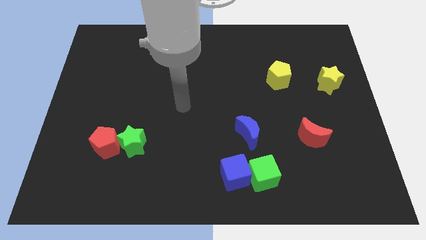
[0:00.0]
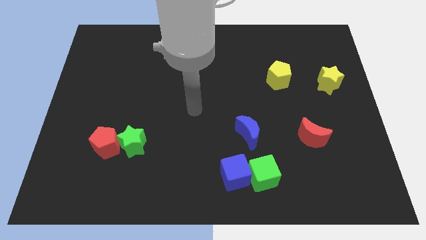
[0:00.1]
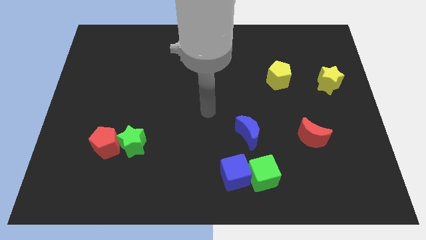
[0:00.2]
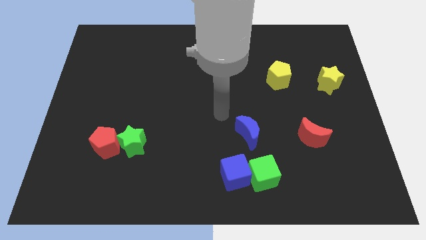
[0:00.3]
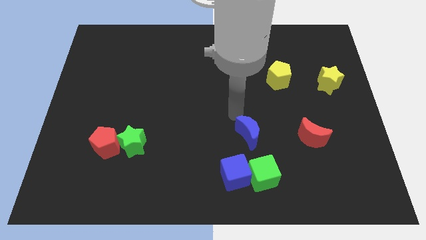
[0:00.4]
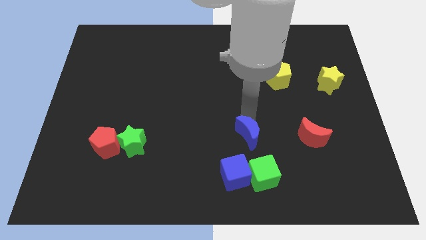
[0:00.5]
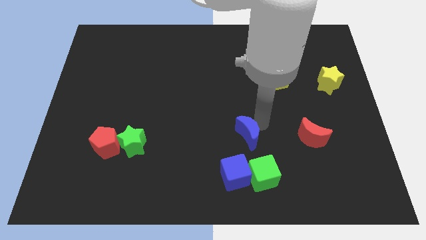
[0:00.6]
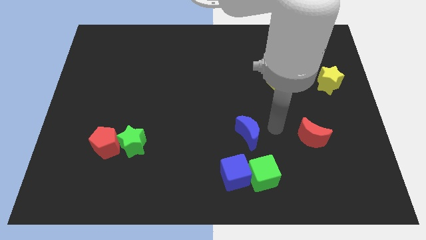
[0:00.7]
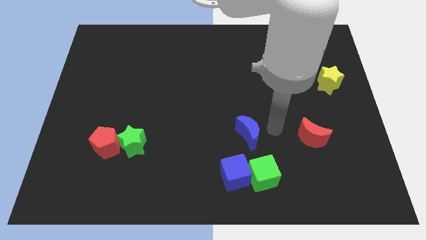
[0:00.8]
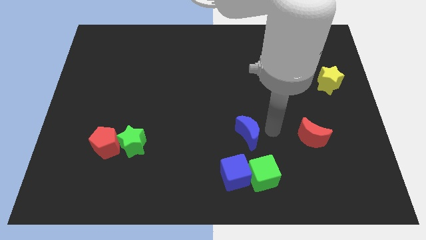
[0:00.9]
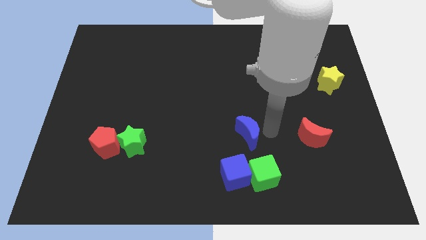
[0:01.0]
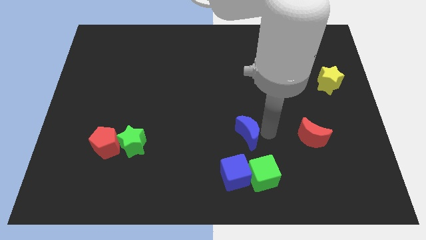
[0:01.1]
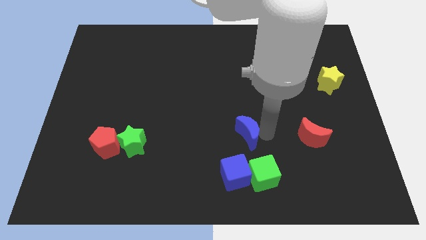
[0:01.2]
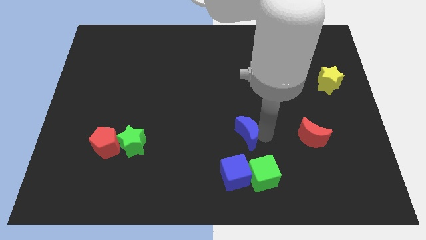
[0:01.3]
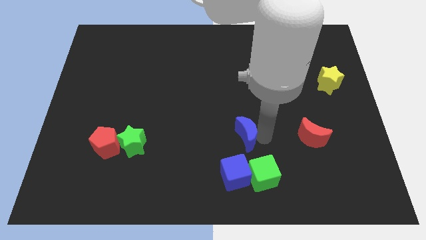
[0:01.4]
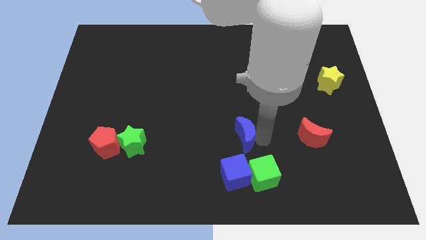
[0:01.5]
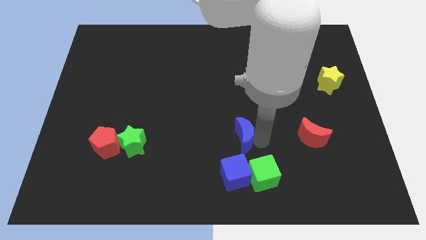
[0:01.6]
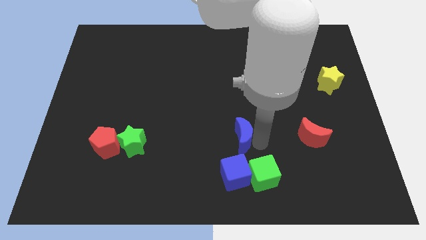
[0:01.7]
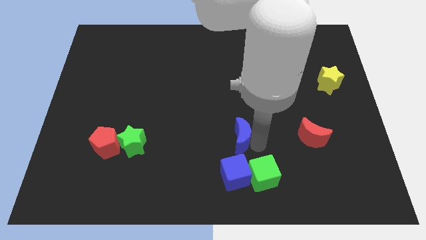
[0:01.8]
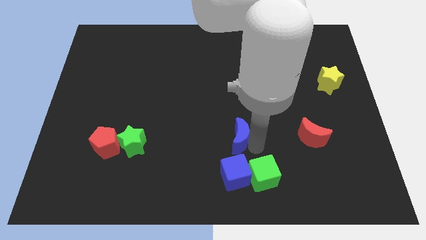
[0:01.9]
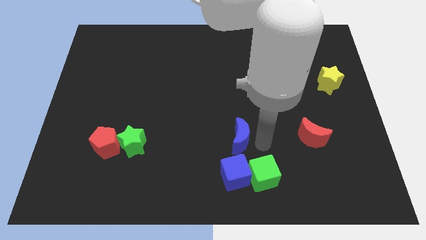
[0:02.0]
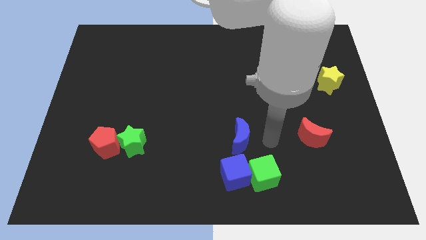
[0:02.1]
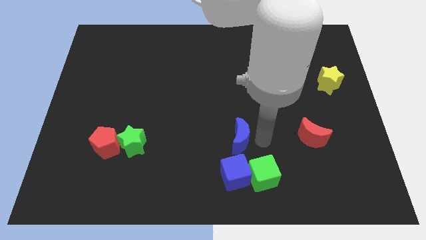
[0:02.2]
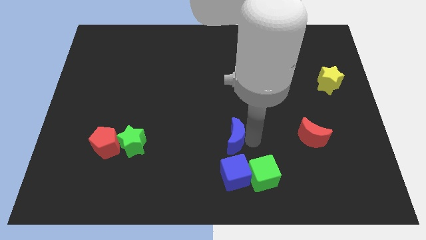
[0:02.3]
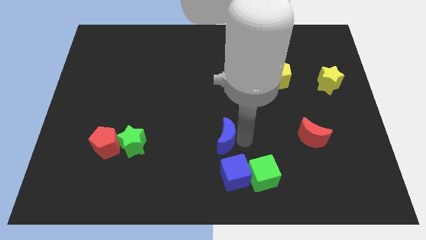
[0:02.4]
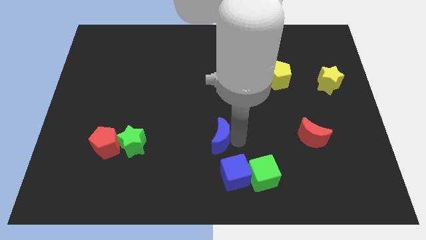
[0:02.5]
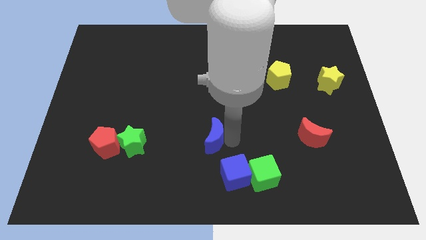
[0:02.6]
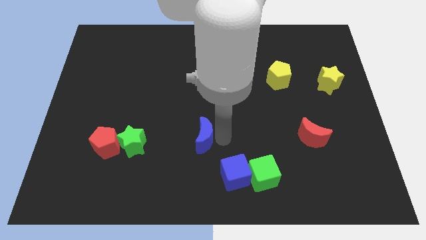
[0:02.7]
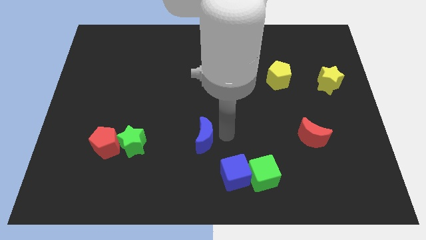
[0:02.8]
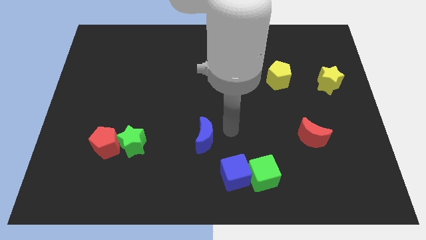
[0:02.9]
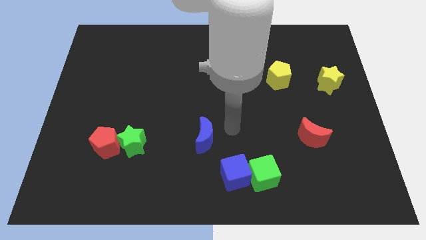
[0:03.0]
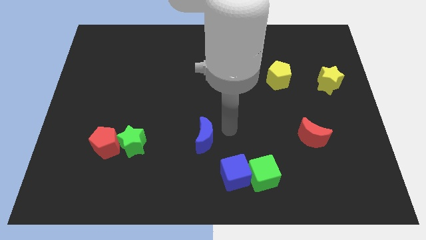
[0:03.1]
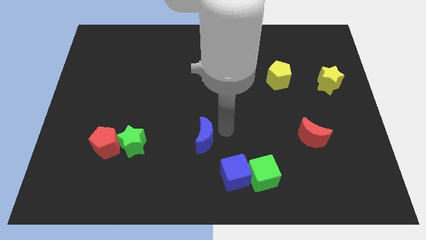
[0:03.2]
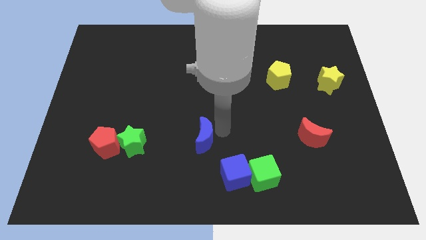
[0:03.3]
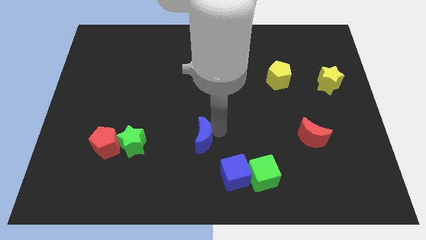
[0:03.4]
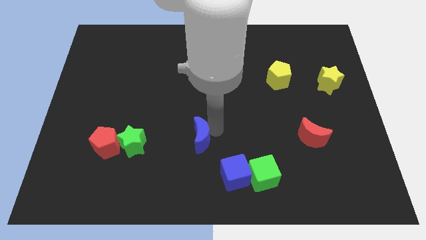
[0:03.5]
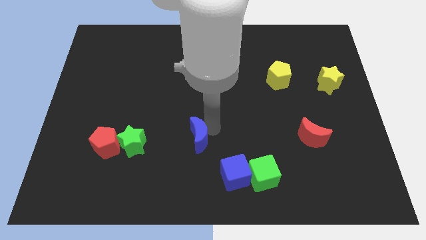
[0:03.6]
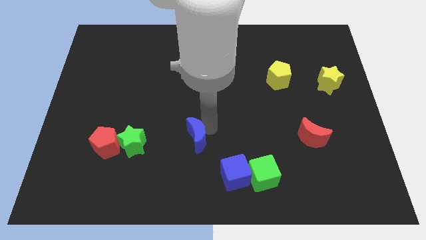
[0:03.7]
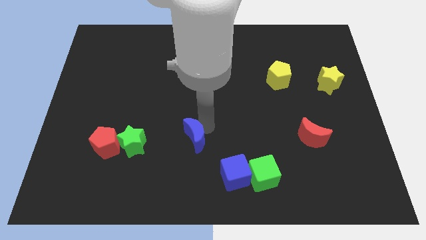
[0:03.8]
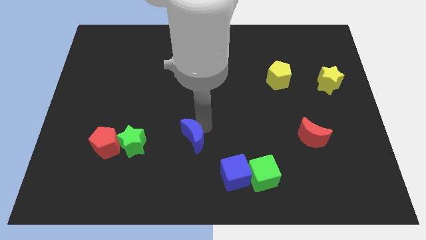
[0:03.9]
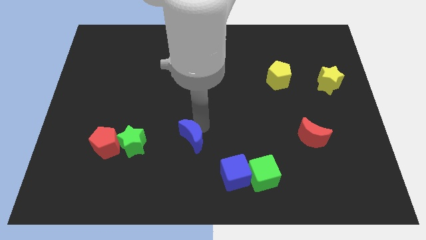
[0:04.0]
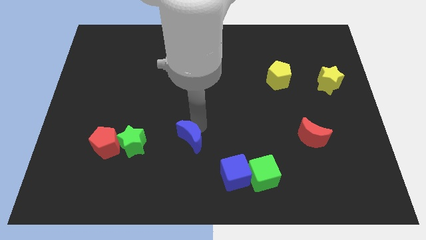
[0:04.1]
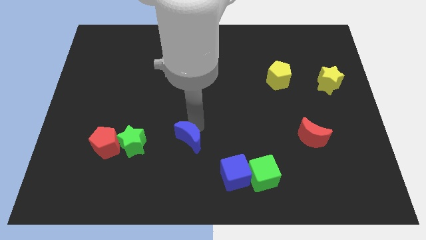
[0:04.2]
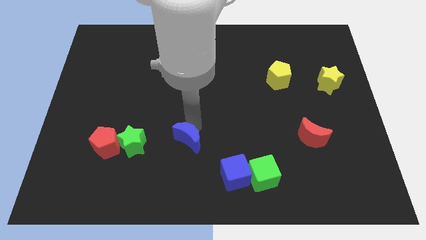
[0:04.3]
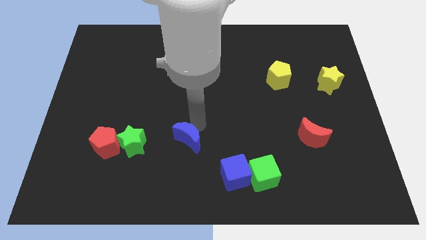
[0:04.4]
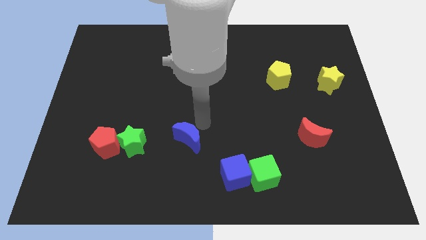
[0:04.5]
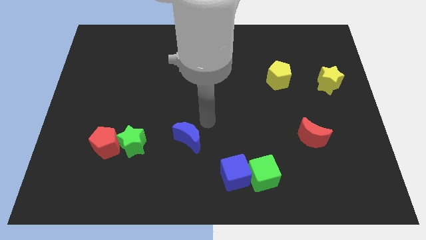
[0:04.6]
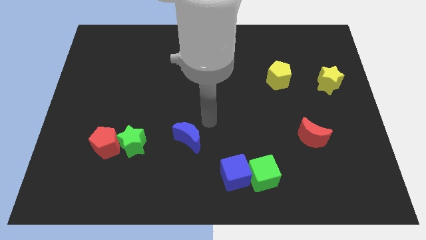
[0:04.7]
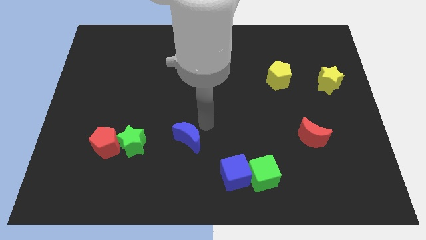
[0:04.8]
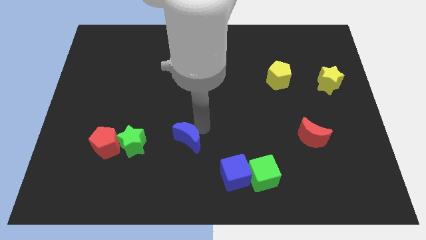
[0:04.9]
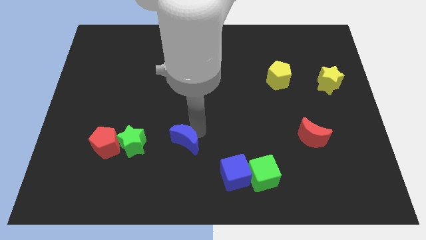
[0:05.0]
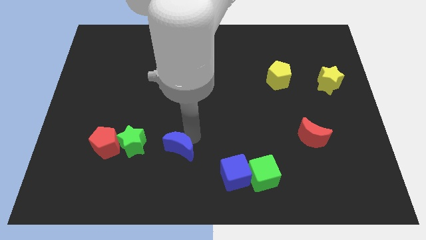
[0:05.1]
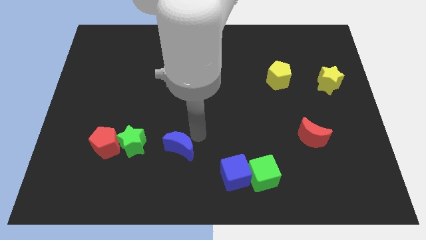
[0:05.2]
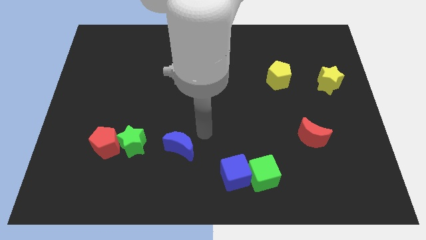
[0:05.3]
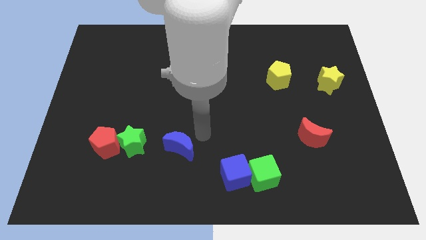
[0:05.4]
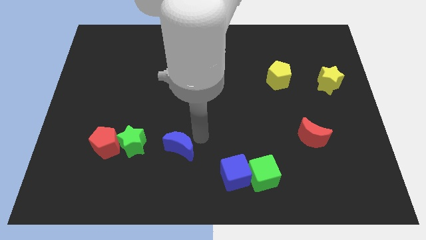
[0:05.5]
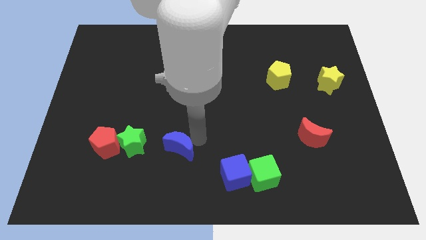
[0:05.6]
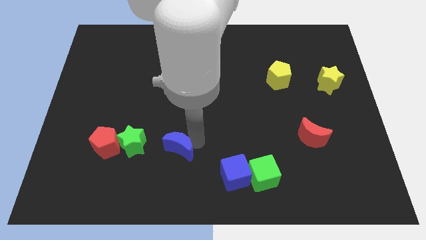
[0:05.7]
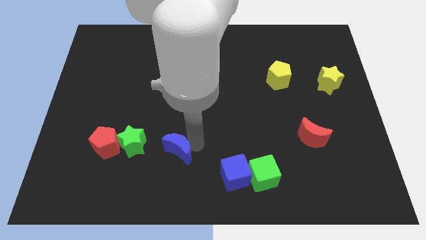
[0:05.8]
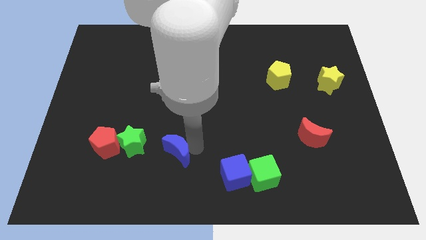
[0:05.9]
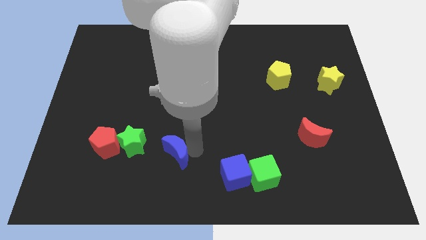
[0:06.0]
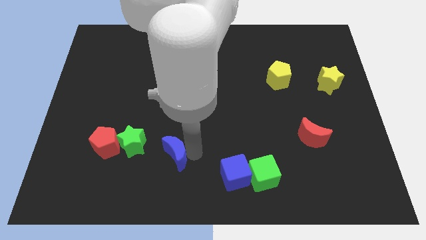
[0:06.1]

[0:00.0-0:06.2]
slide the blue moon diagonally down and to the right of the green star
